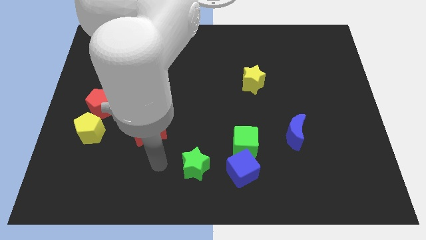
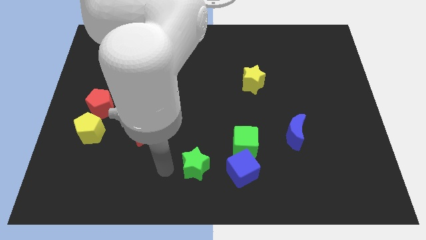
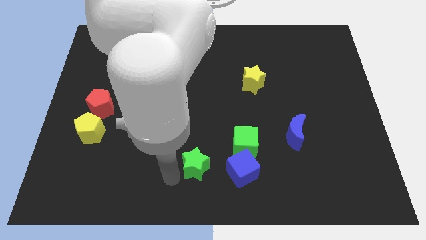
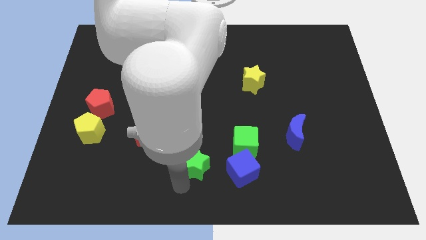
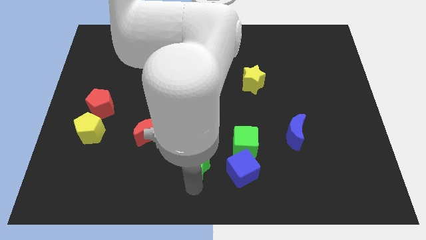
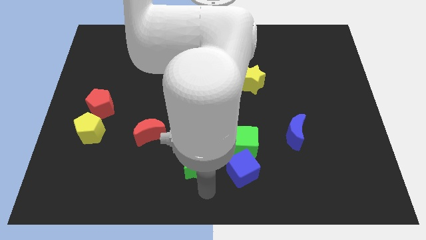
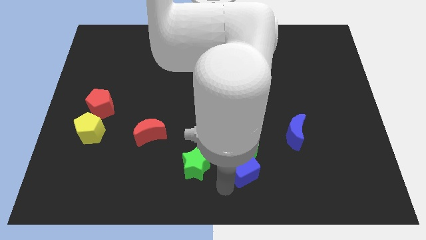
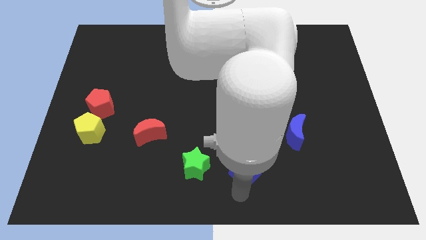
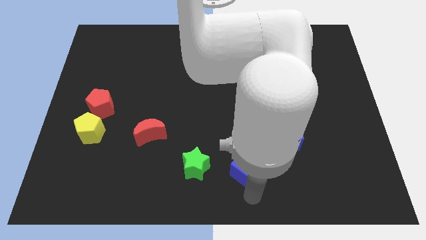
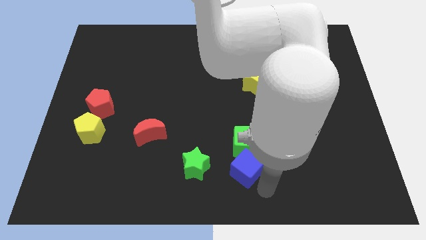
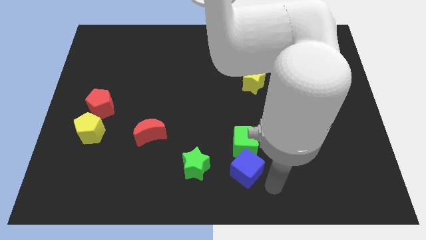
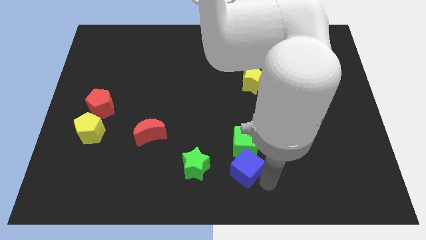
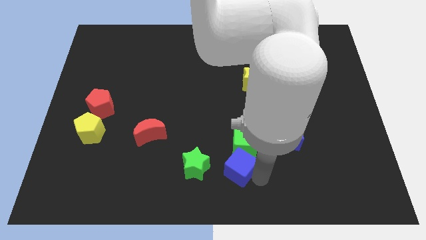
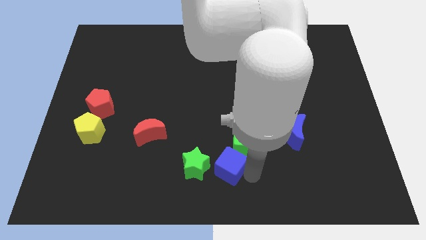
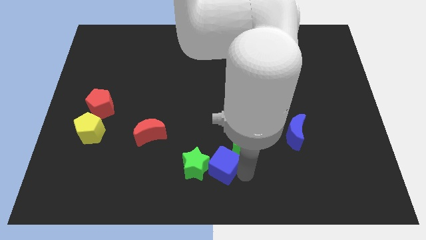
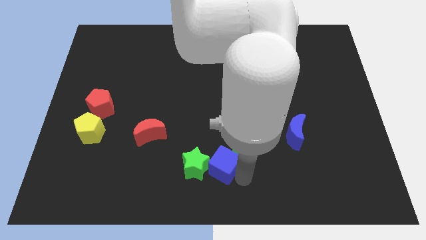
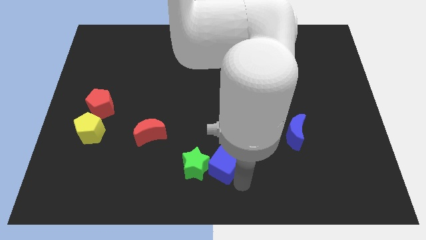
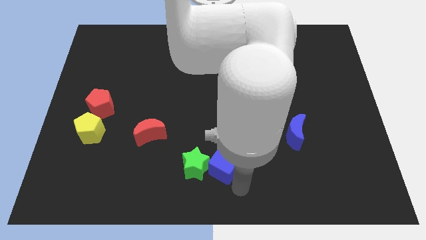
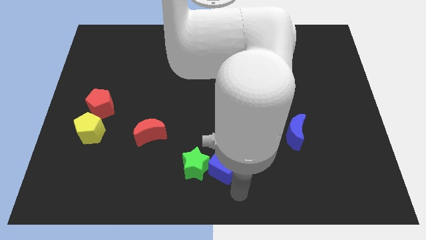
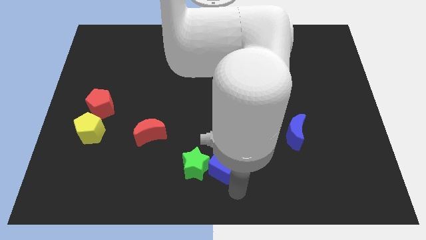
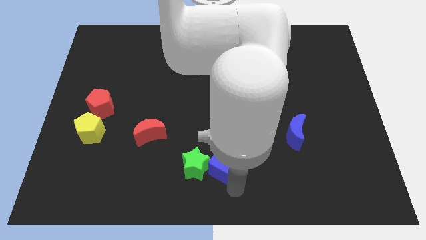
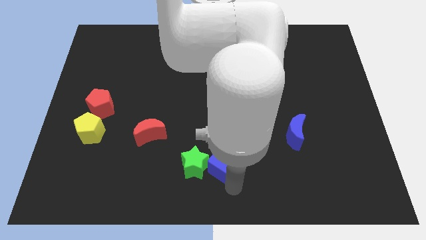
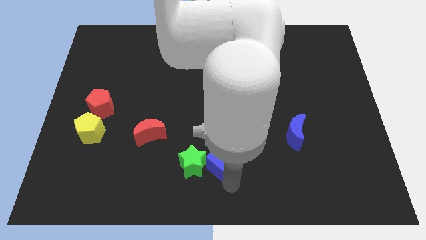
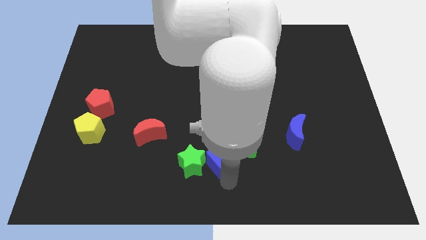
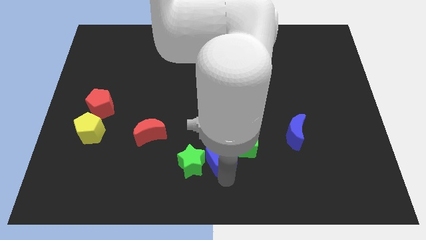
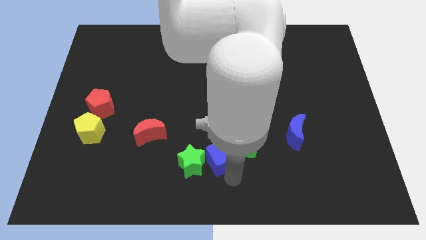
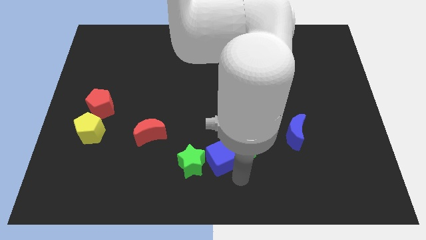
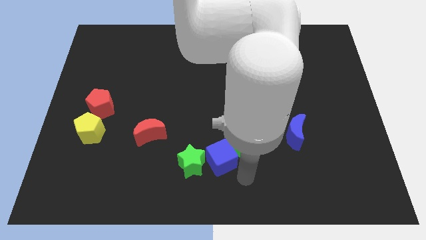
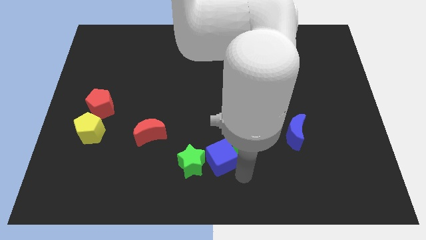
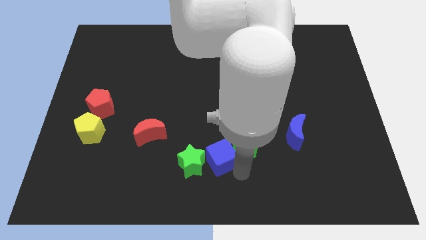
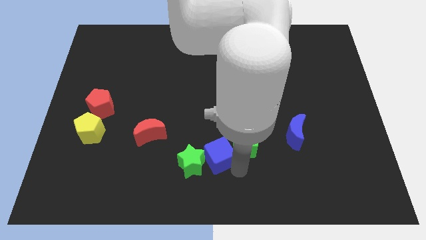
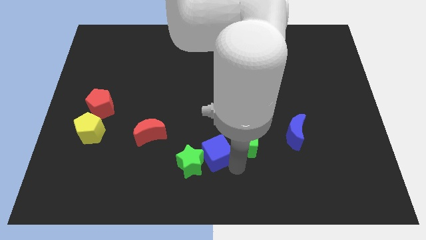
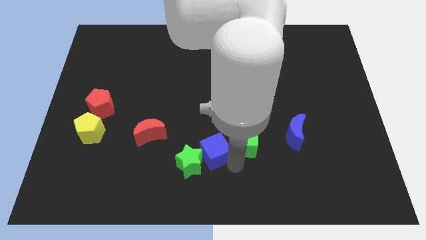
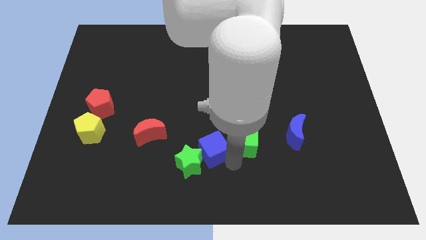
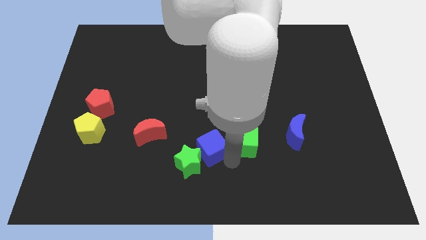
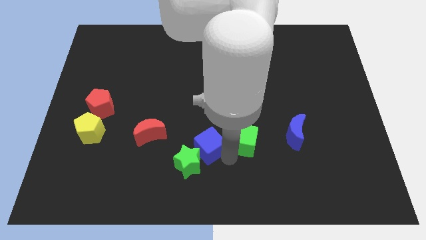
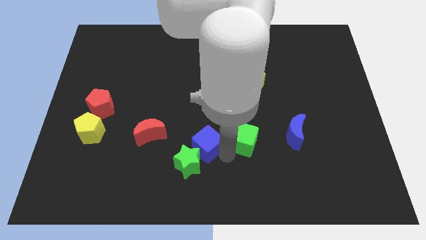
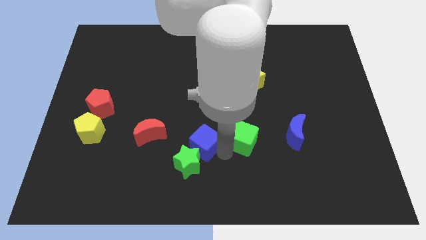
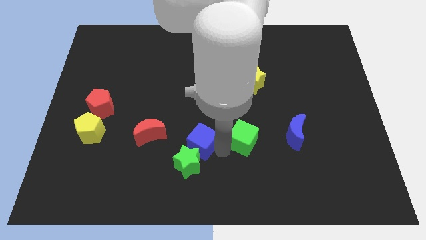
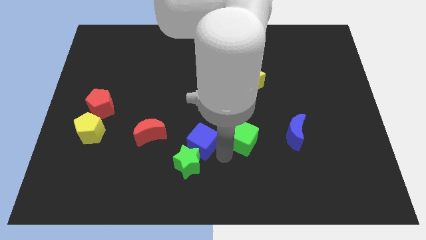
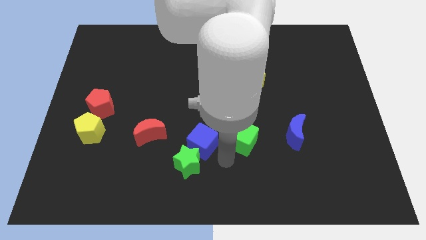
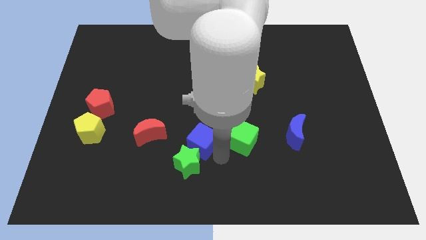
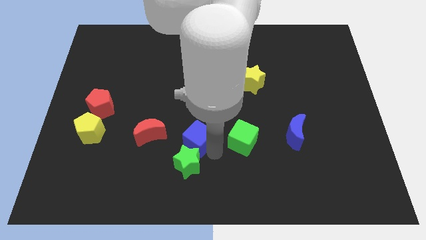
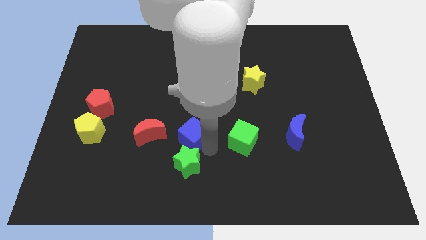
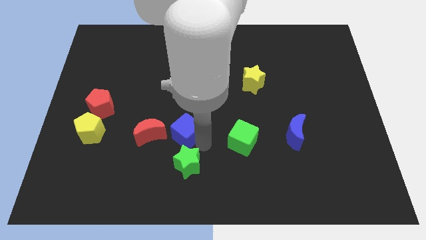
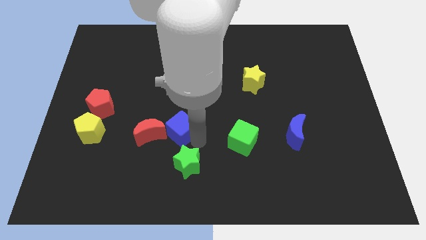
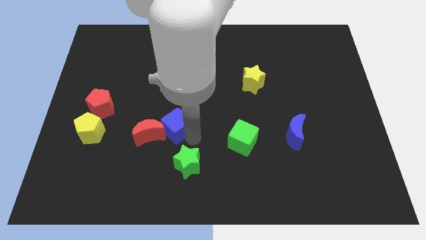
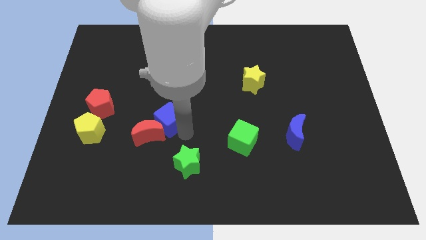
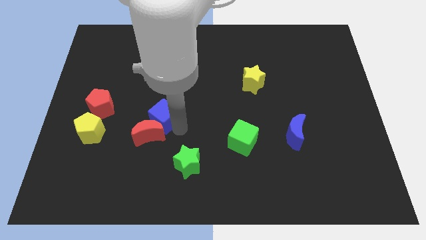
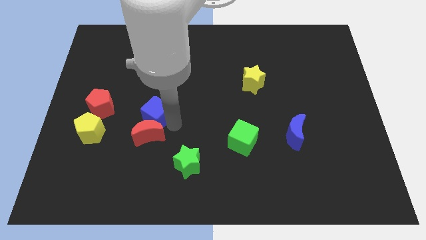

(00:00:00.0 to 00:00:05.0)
slide the blue cube to the right of the red pentagon

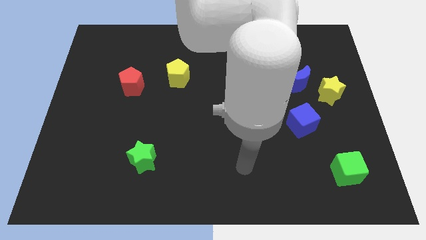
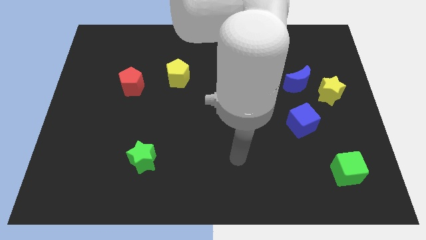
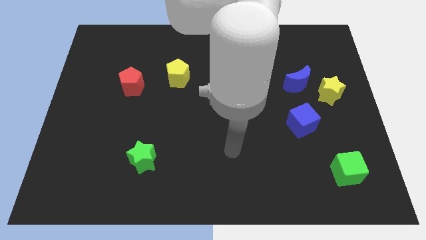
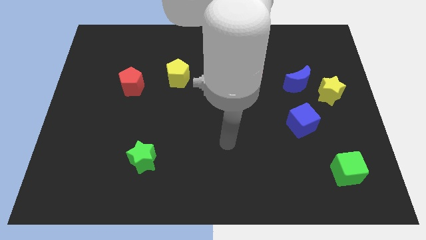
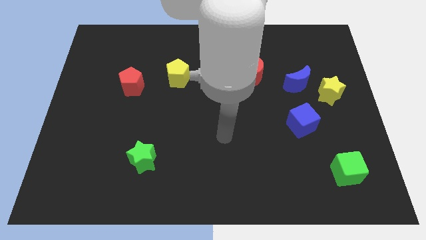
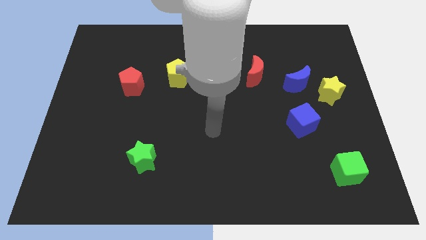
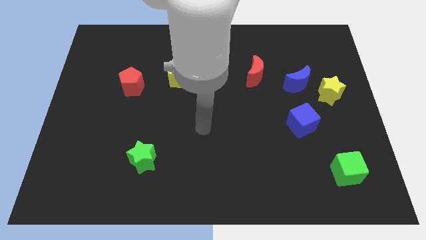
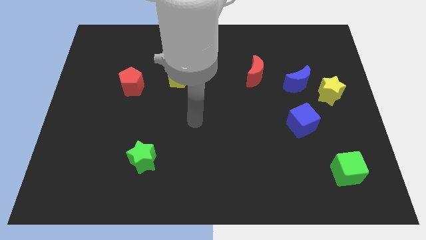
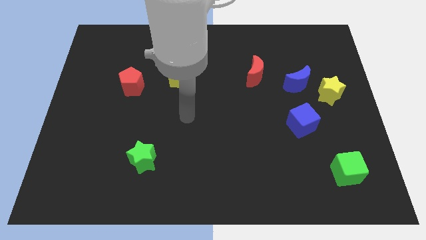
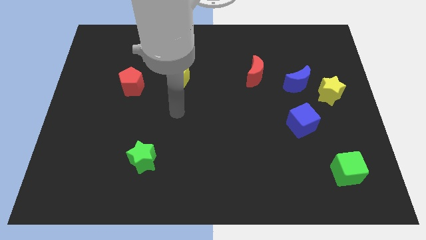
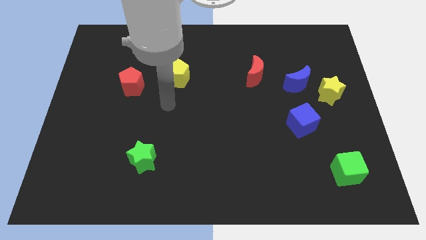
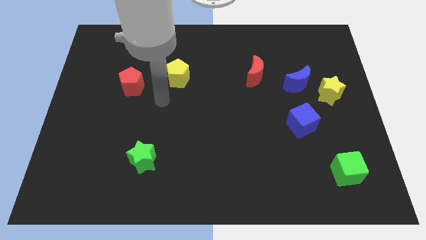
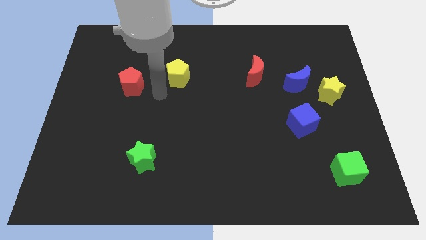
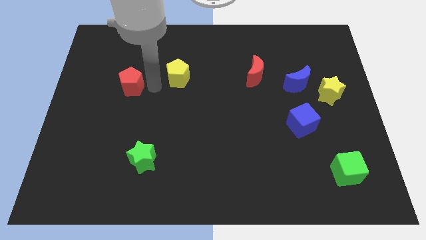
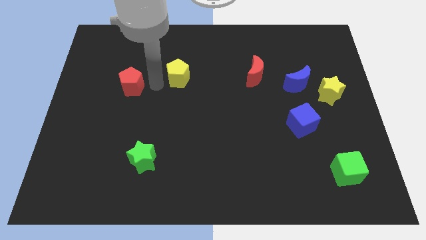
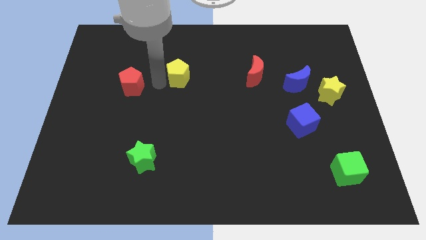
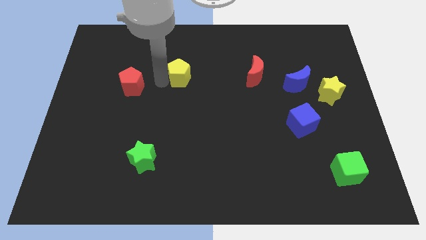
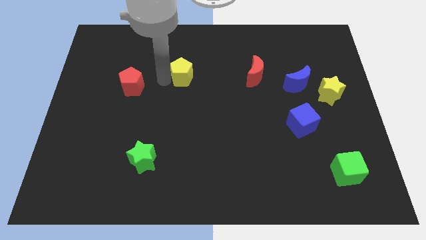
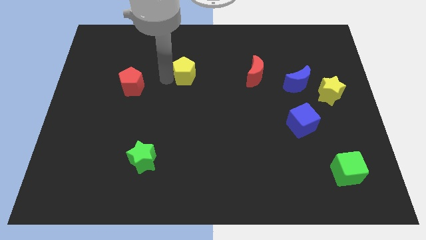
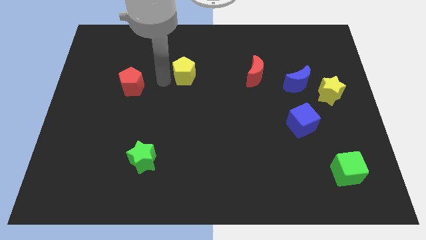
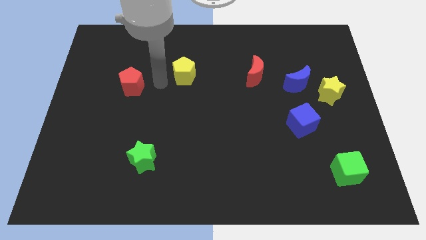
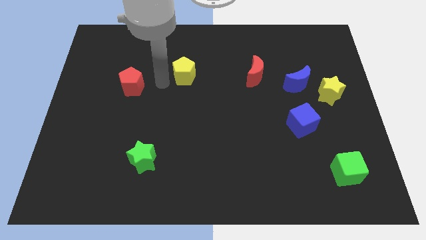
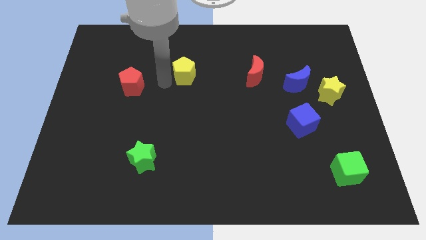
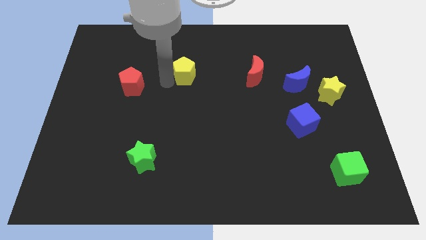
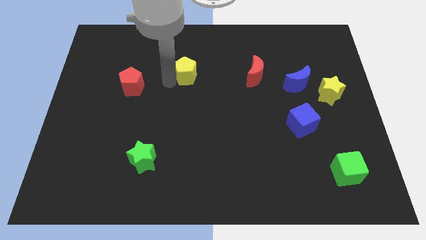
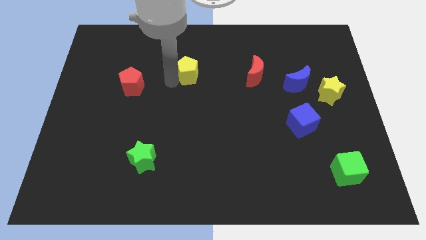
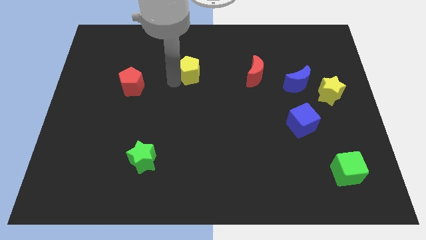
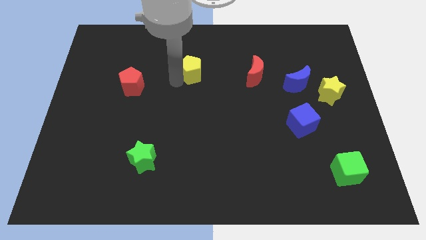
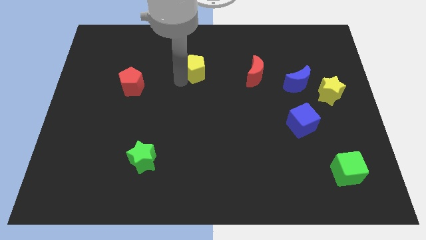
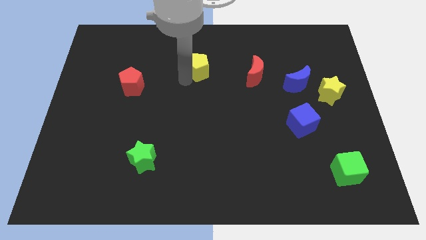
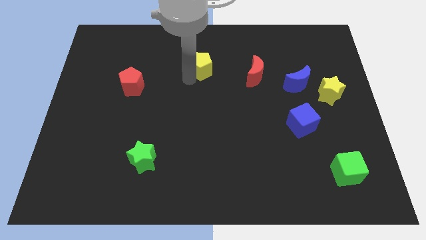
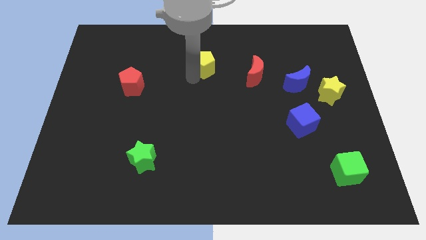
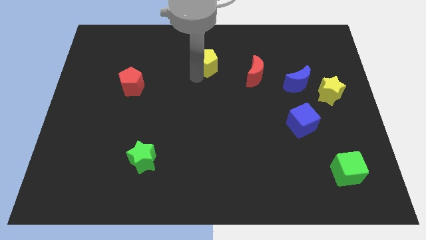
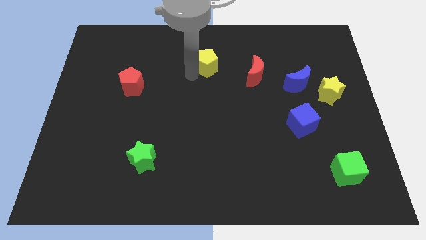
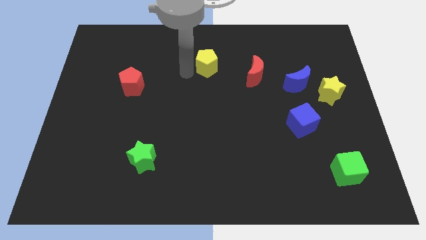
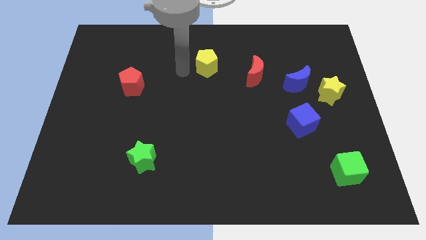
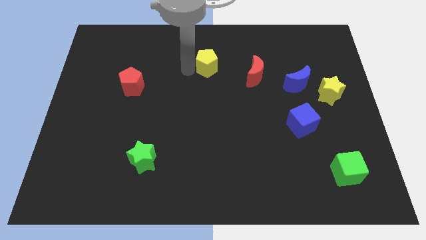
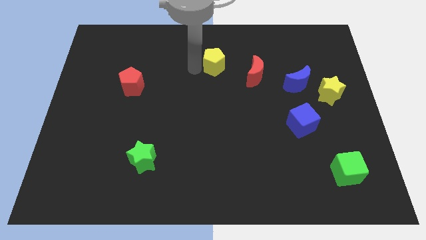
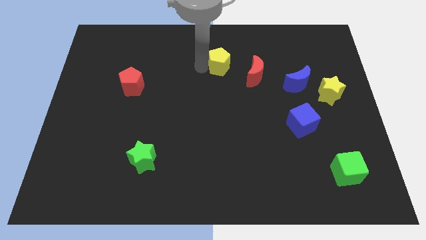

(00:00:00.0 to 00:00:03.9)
put the yellow pentagon to the top left of the red moon
